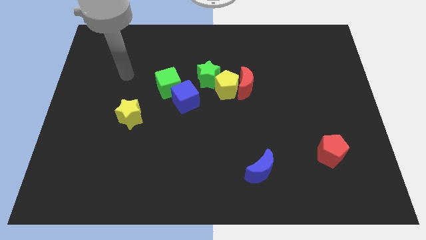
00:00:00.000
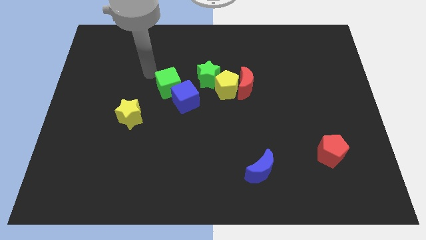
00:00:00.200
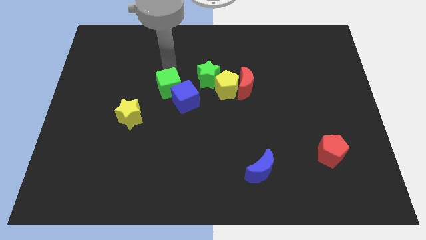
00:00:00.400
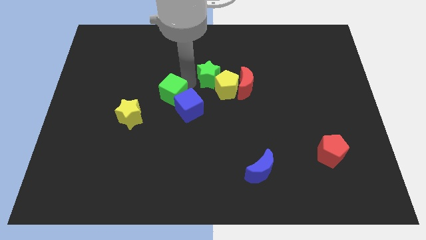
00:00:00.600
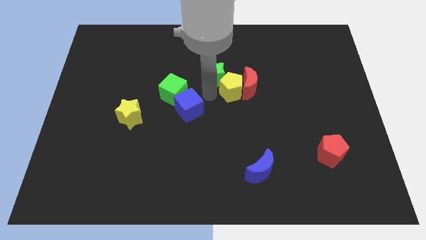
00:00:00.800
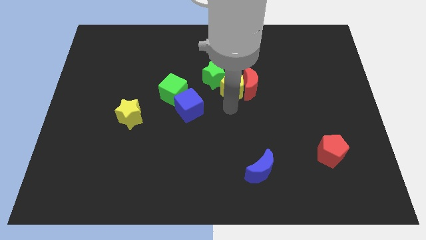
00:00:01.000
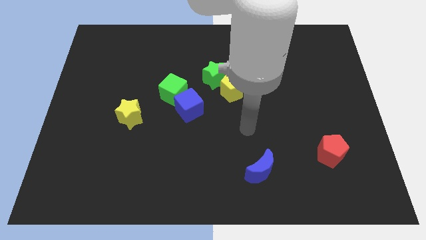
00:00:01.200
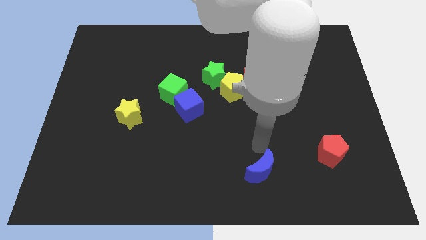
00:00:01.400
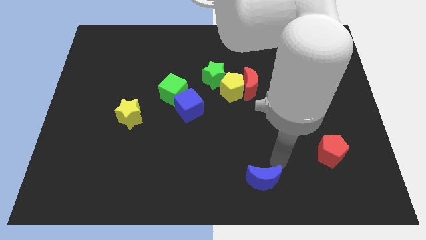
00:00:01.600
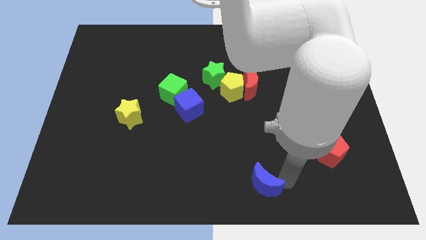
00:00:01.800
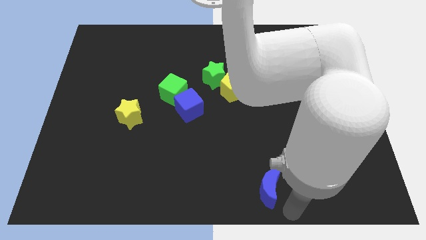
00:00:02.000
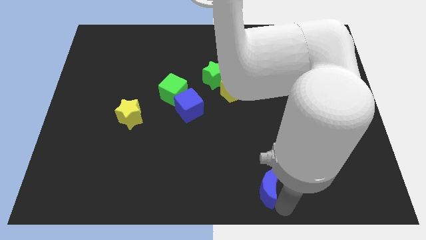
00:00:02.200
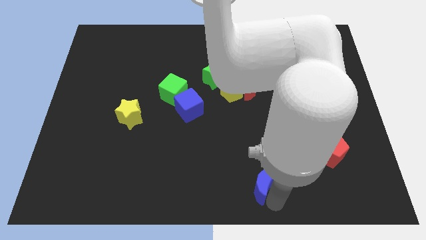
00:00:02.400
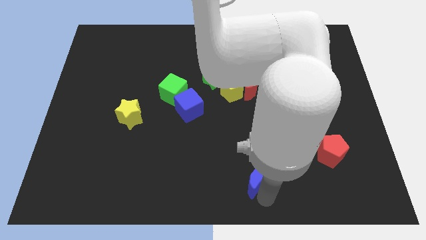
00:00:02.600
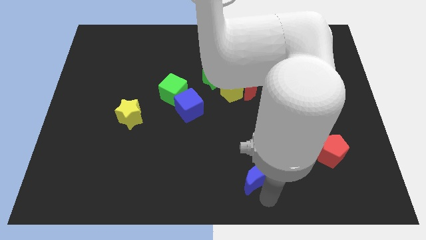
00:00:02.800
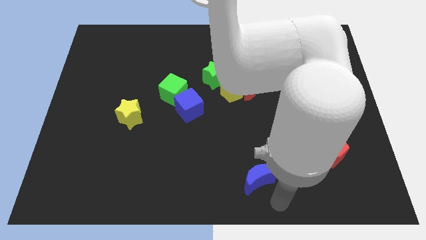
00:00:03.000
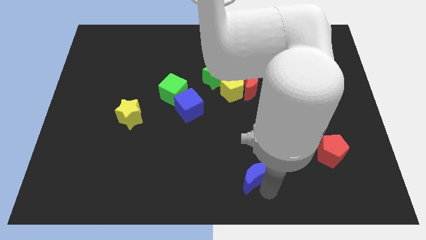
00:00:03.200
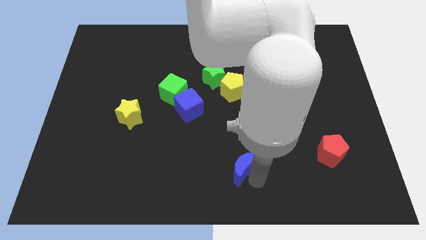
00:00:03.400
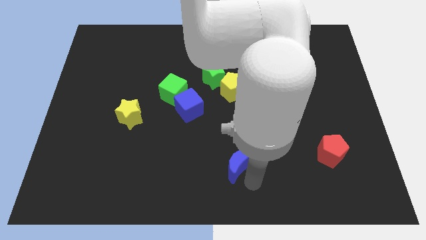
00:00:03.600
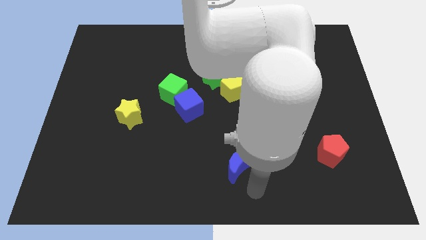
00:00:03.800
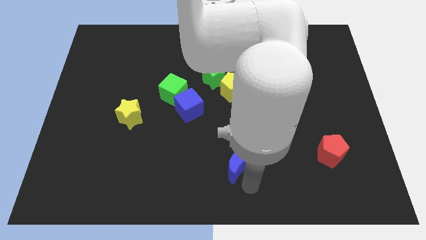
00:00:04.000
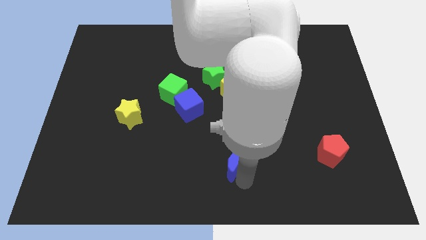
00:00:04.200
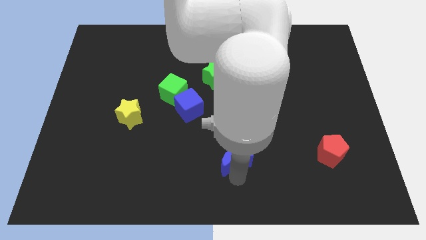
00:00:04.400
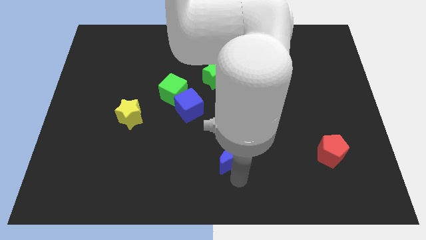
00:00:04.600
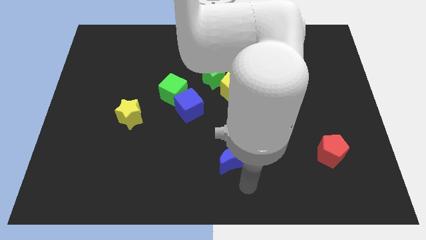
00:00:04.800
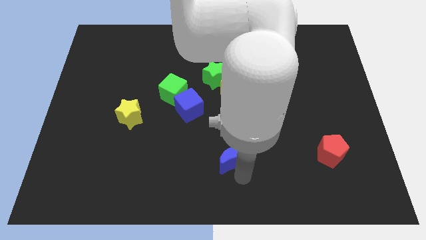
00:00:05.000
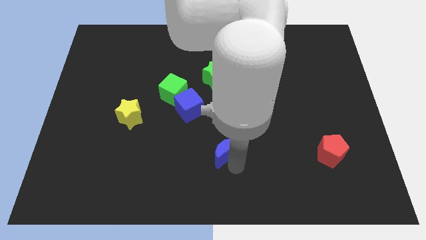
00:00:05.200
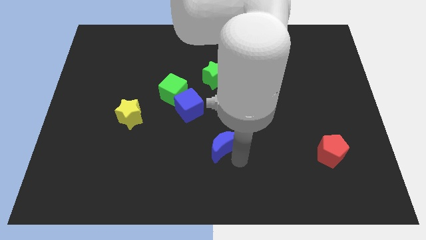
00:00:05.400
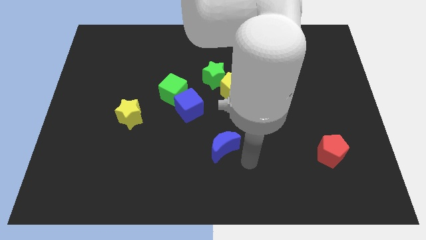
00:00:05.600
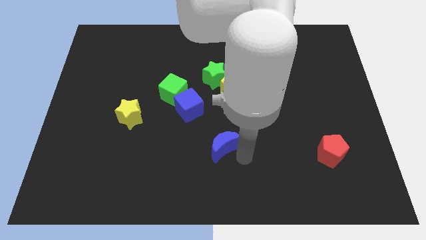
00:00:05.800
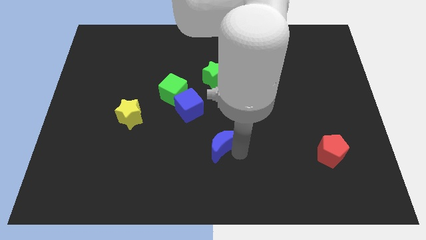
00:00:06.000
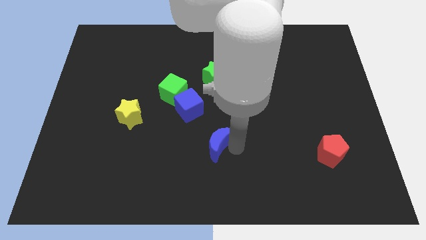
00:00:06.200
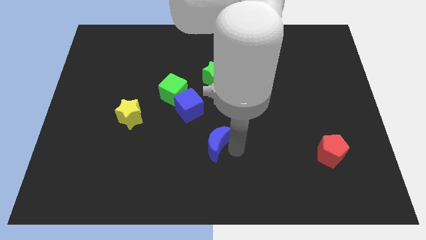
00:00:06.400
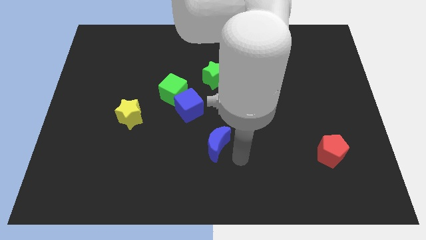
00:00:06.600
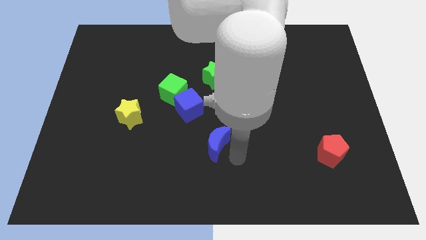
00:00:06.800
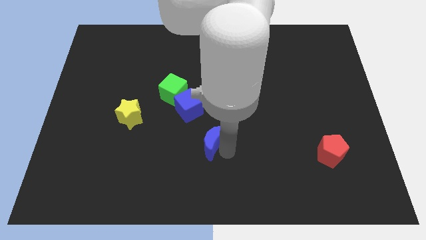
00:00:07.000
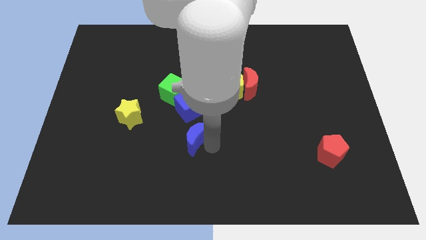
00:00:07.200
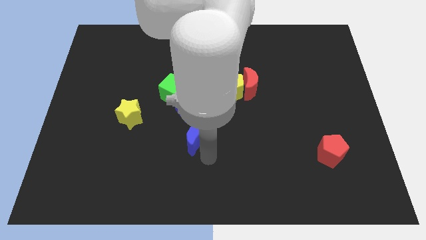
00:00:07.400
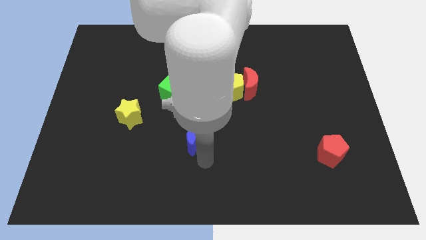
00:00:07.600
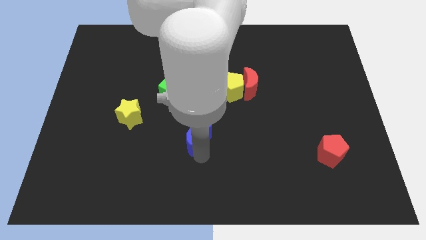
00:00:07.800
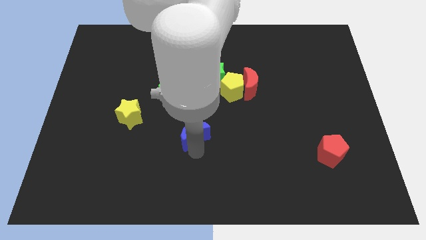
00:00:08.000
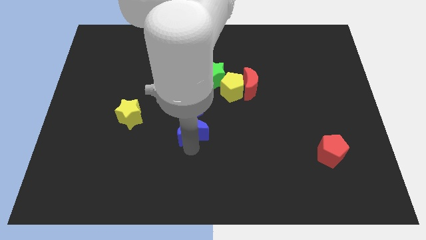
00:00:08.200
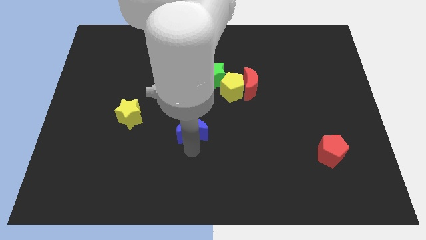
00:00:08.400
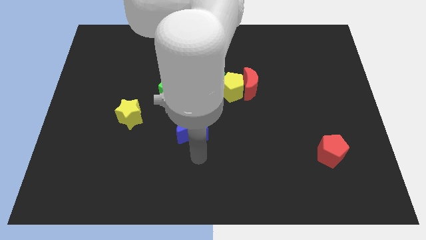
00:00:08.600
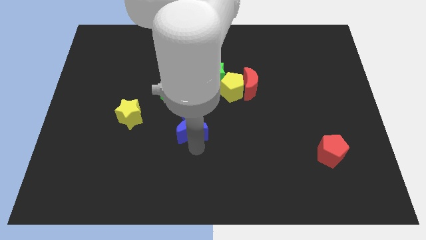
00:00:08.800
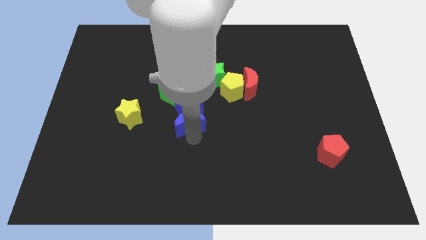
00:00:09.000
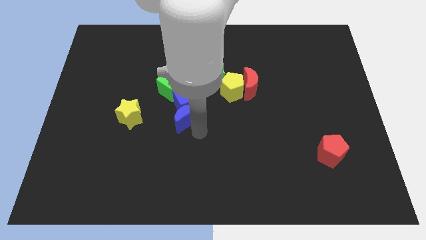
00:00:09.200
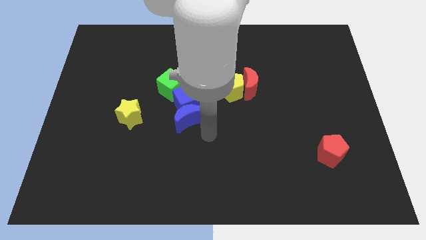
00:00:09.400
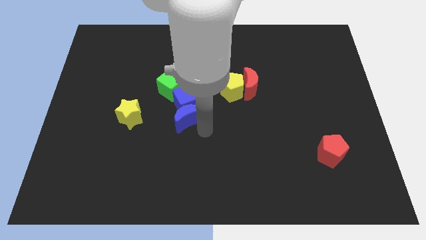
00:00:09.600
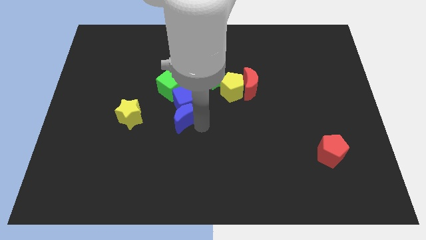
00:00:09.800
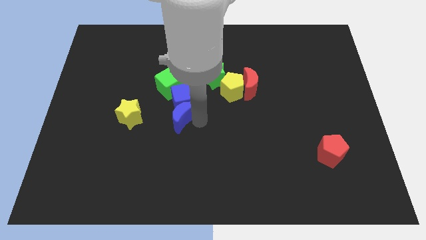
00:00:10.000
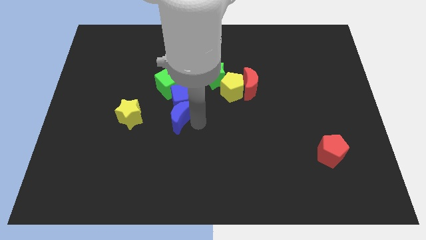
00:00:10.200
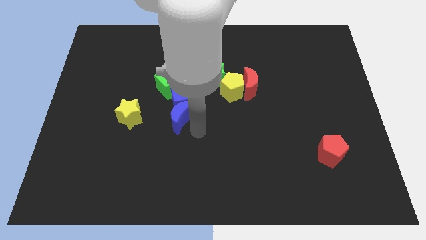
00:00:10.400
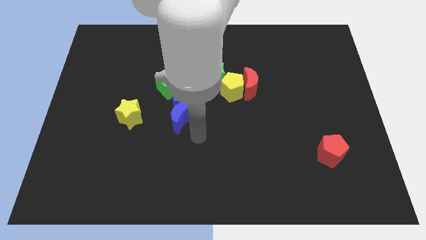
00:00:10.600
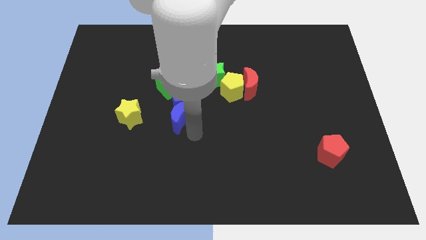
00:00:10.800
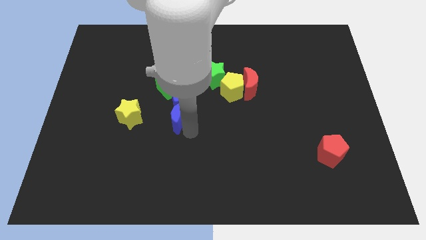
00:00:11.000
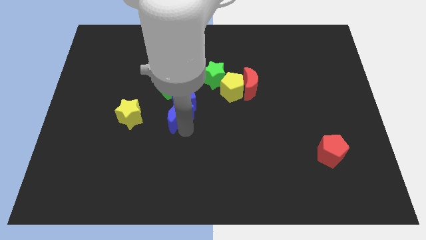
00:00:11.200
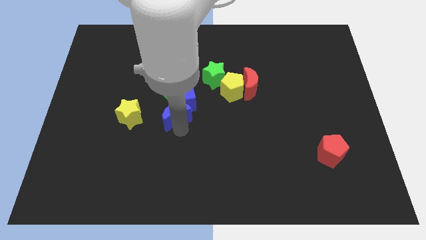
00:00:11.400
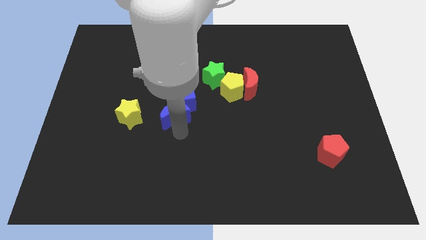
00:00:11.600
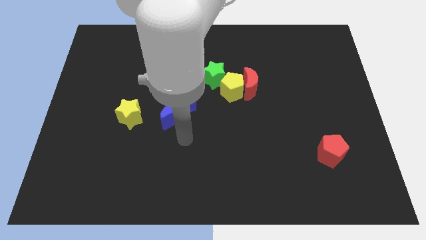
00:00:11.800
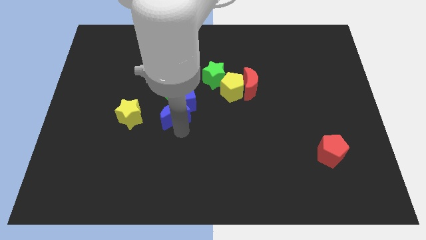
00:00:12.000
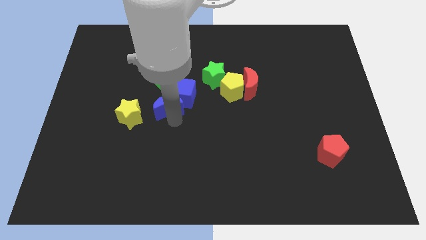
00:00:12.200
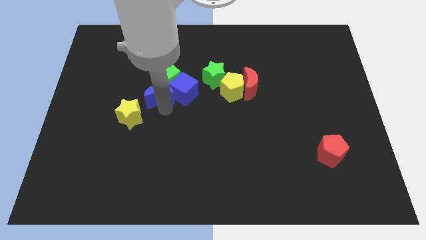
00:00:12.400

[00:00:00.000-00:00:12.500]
move the blue moon towards the green cube

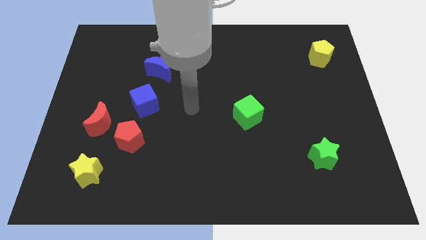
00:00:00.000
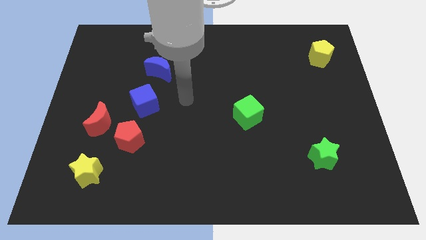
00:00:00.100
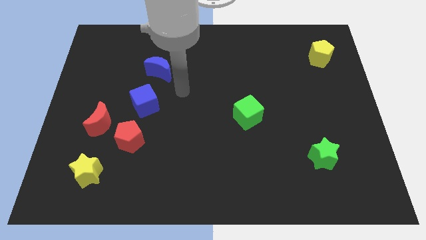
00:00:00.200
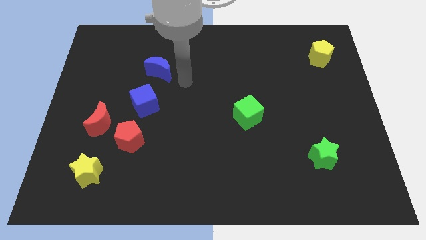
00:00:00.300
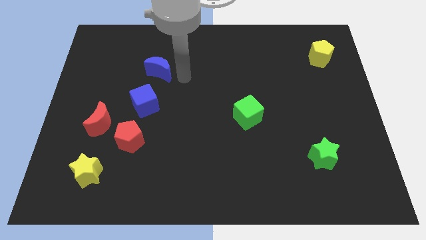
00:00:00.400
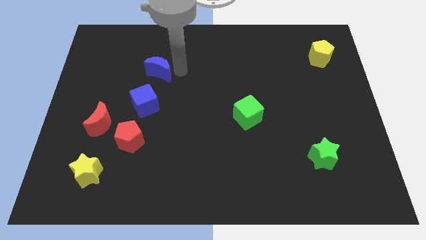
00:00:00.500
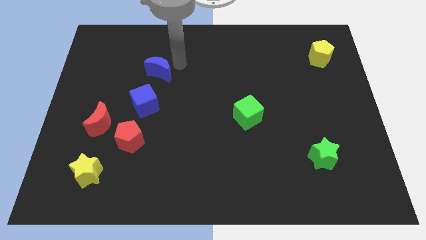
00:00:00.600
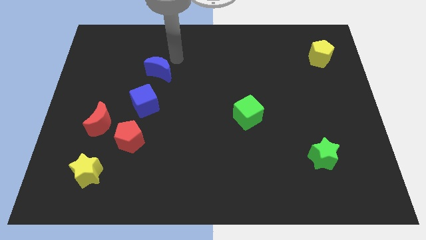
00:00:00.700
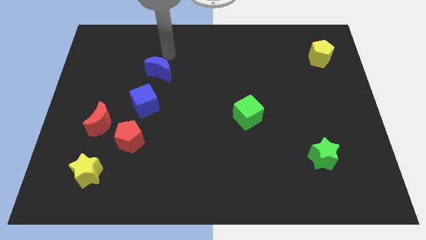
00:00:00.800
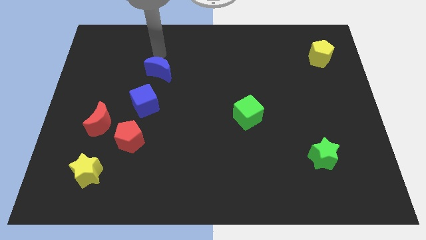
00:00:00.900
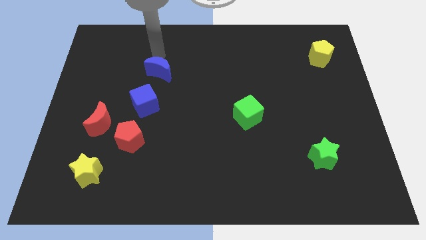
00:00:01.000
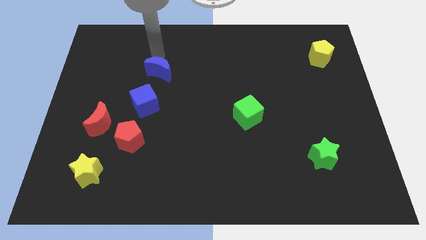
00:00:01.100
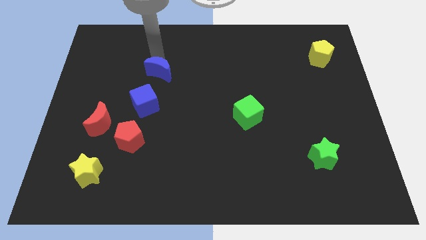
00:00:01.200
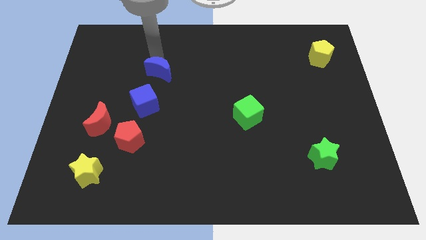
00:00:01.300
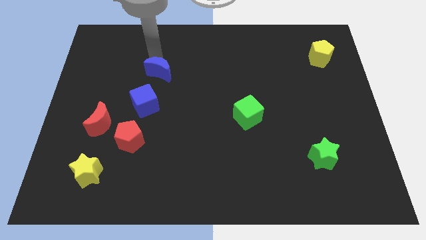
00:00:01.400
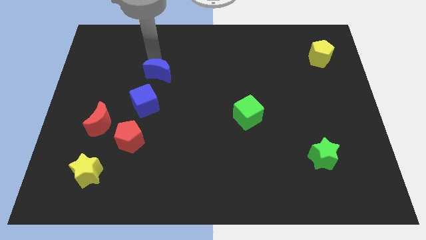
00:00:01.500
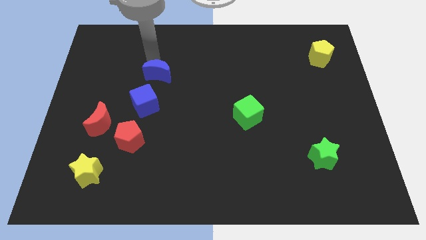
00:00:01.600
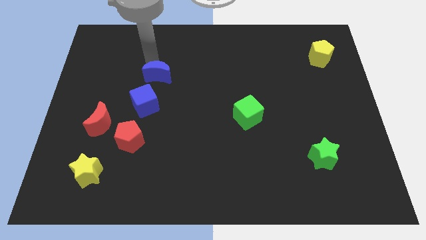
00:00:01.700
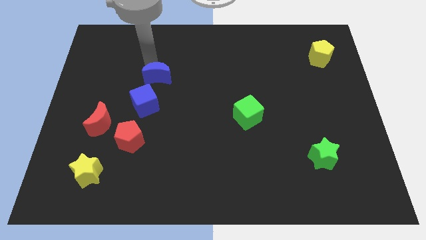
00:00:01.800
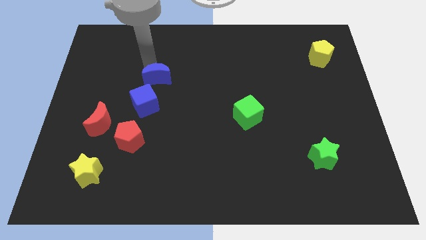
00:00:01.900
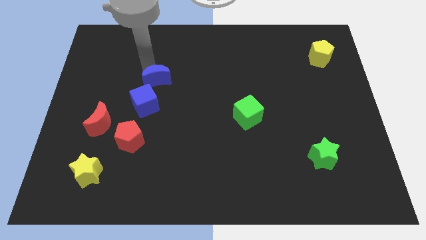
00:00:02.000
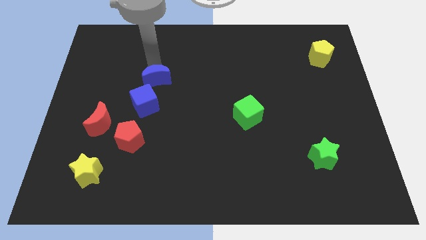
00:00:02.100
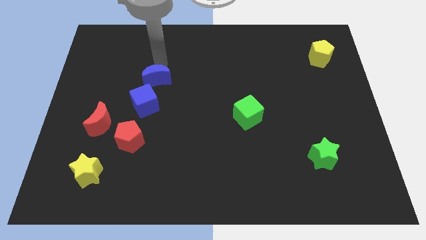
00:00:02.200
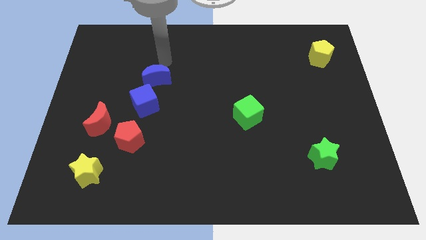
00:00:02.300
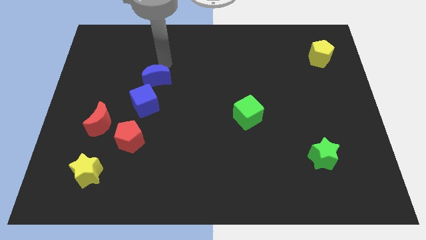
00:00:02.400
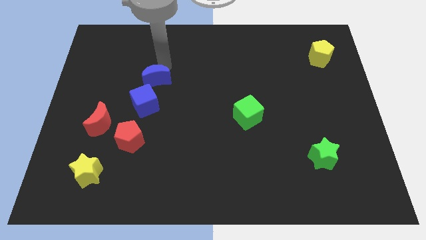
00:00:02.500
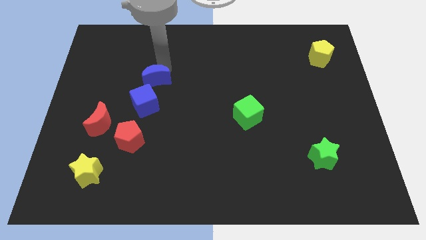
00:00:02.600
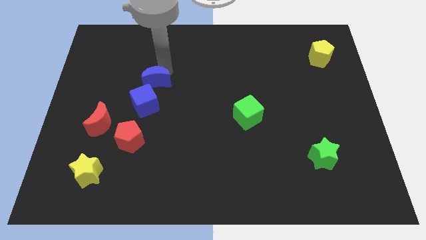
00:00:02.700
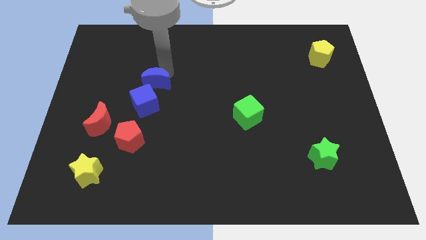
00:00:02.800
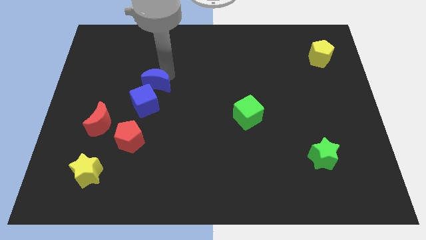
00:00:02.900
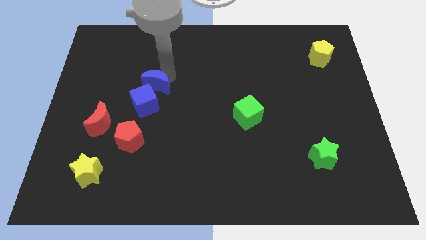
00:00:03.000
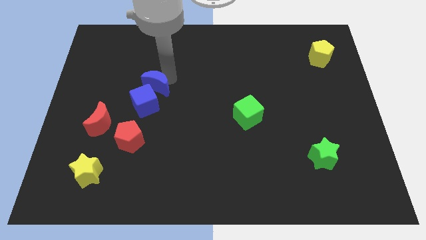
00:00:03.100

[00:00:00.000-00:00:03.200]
push the blue moon to the blue cube
